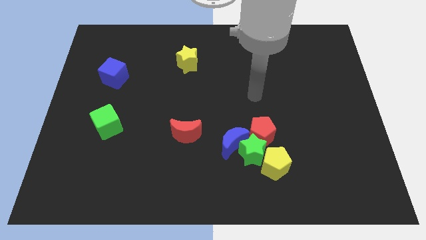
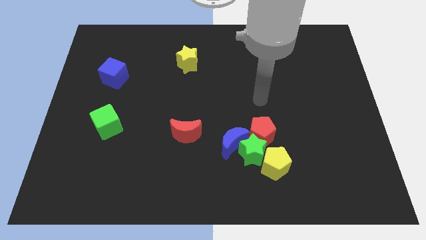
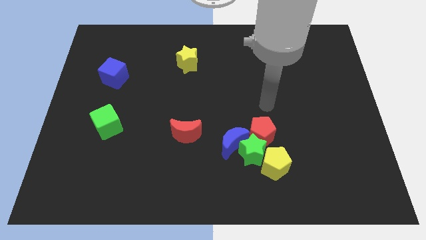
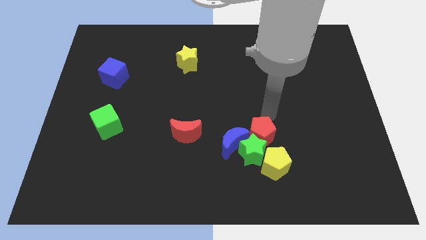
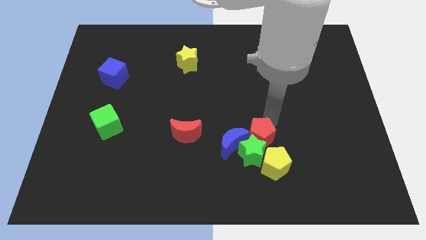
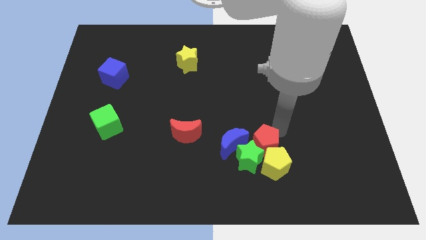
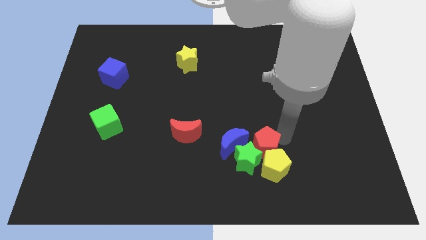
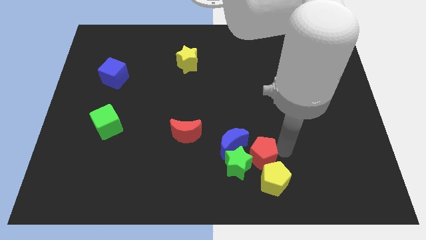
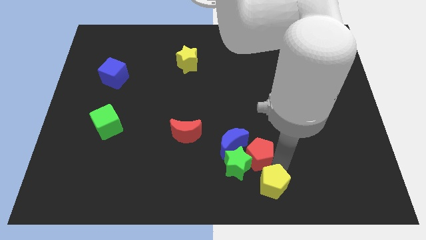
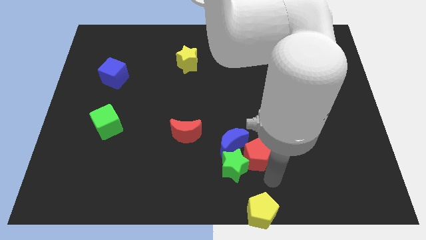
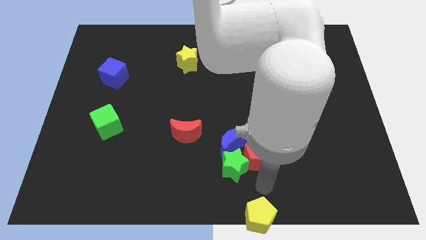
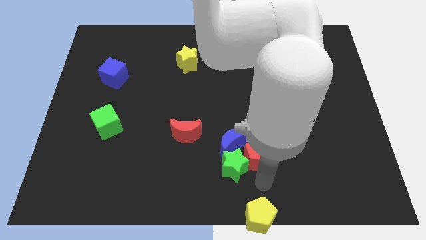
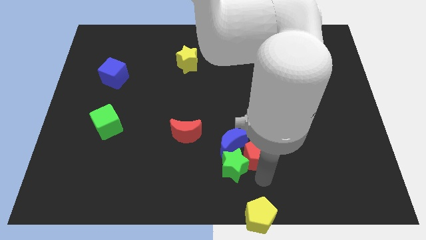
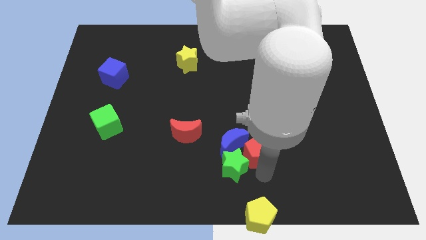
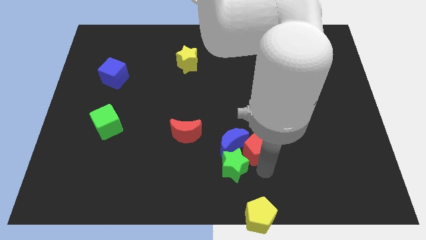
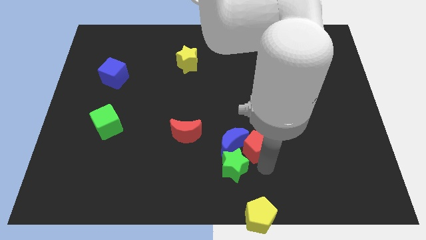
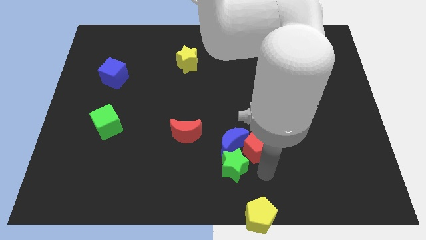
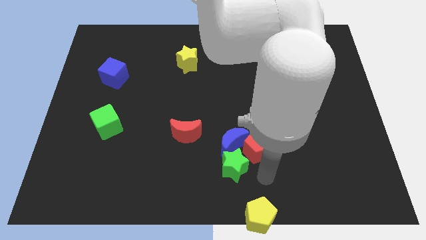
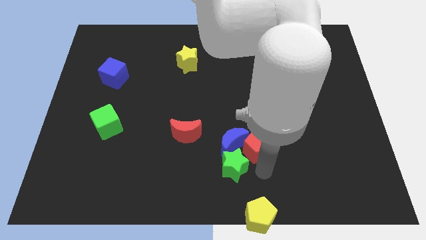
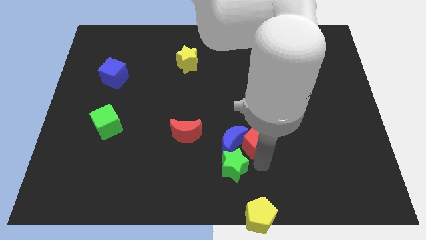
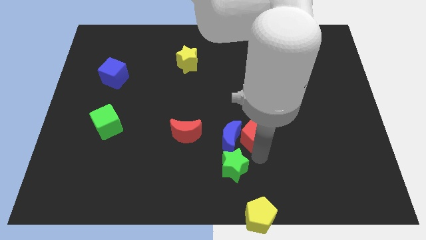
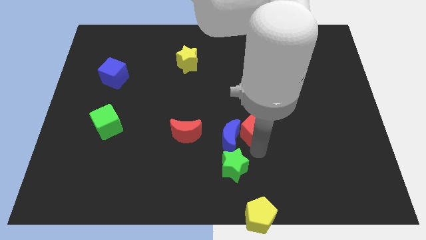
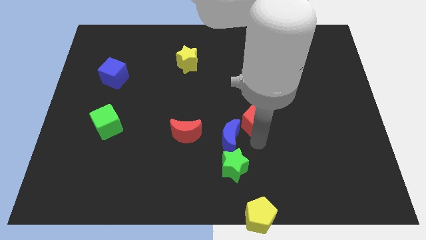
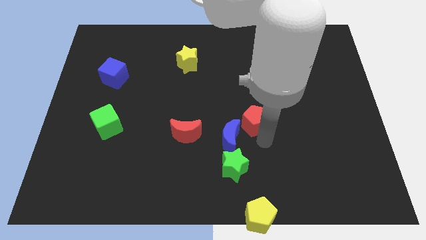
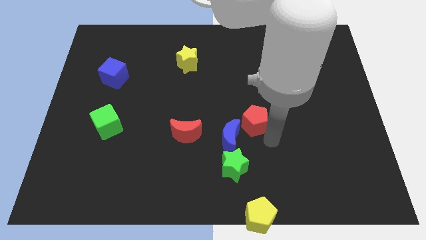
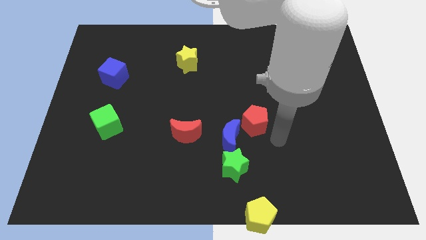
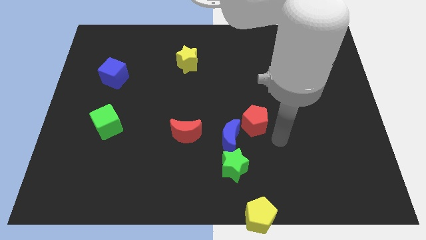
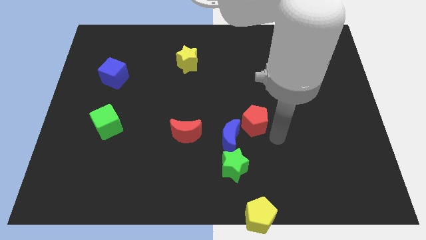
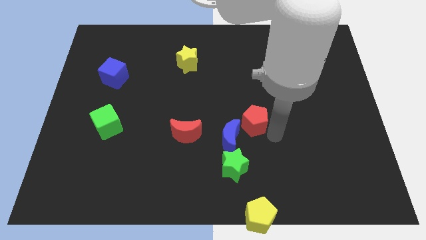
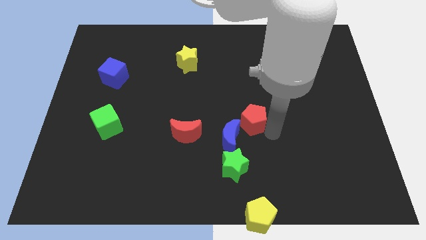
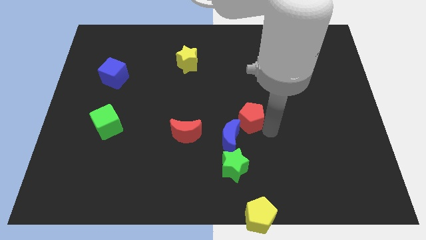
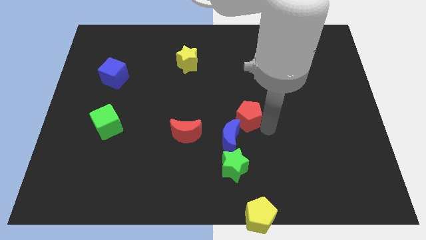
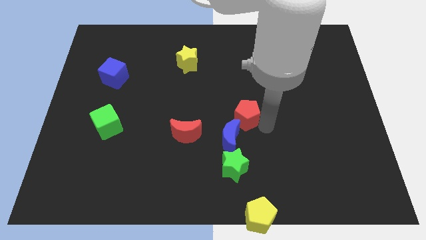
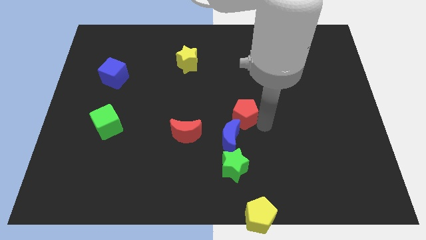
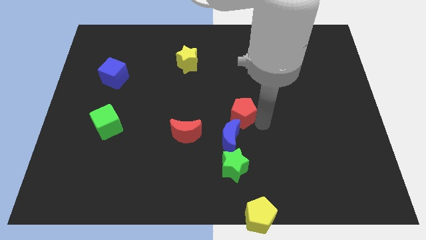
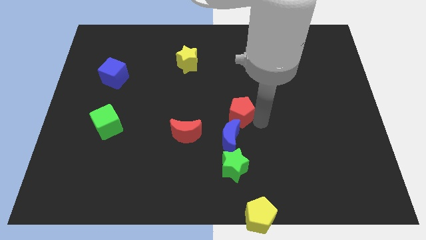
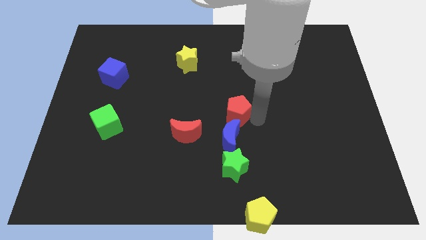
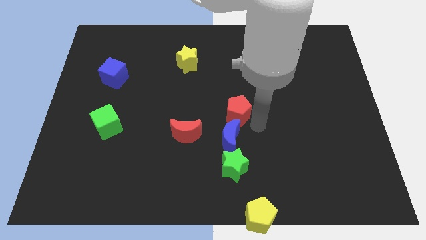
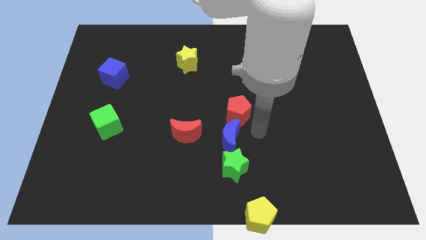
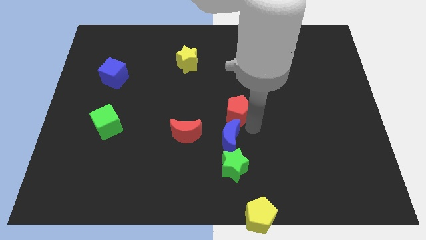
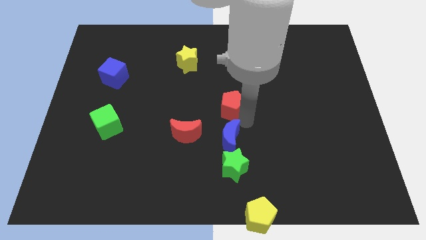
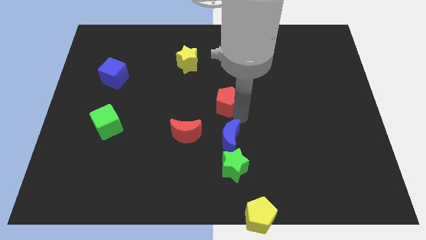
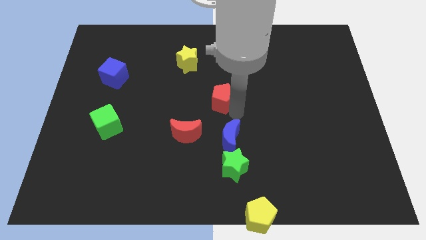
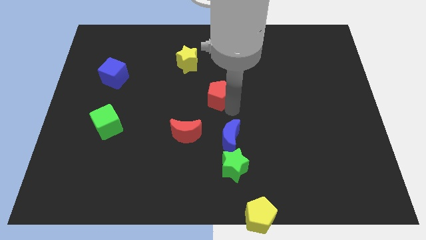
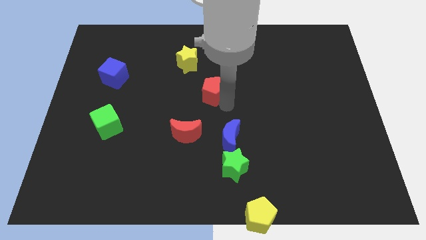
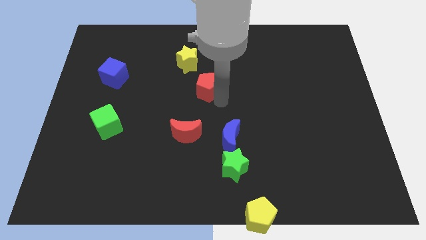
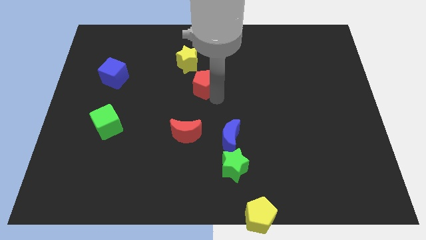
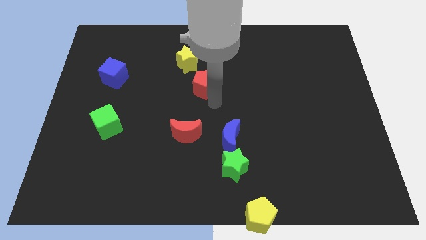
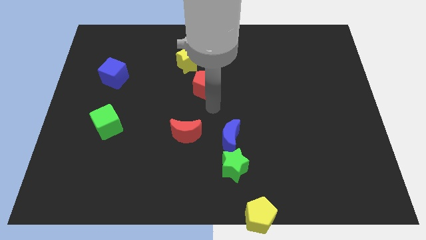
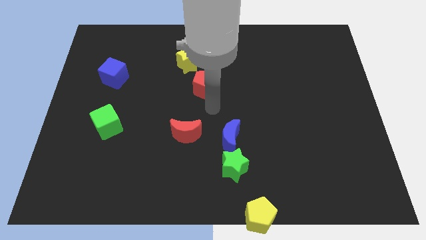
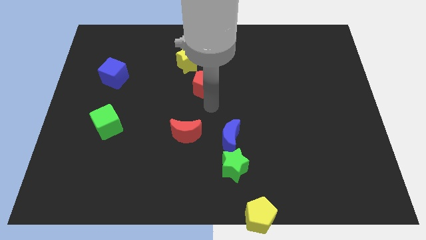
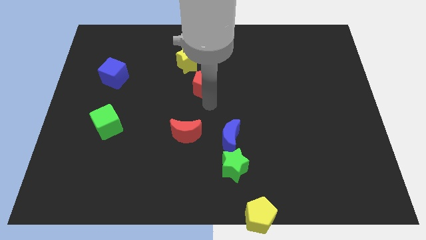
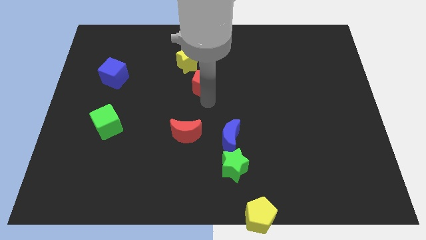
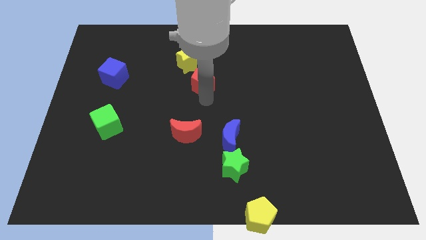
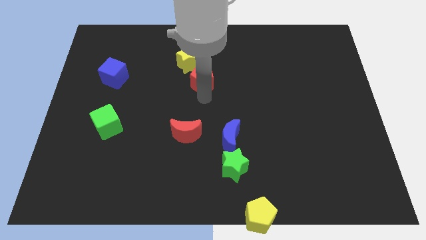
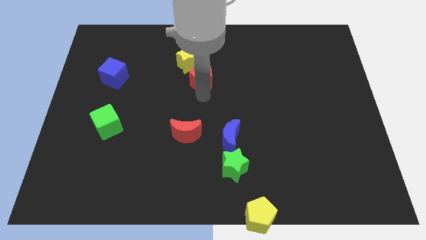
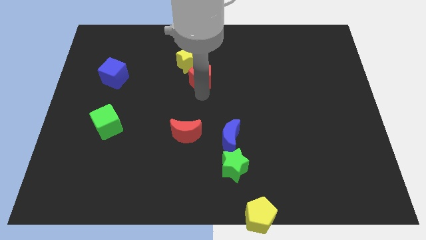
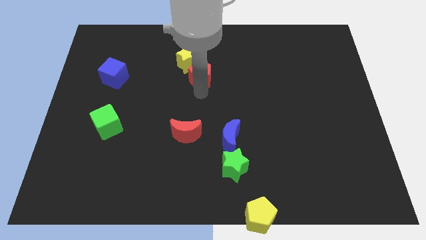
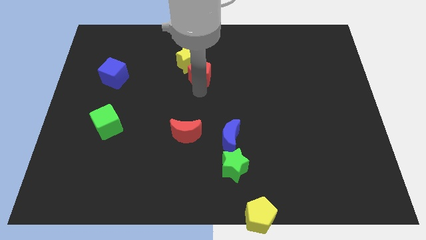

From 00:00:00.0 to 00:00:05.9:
push the red pentagon towards the yellow star

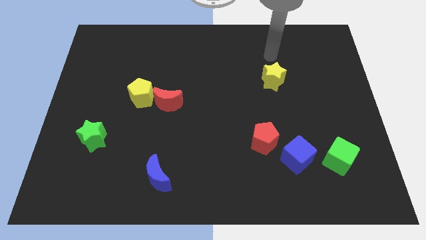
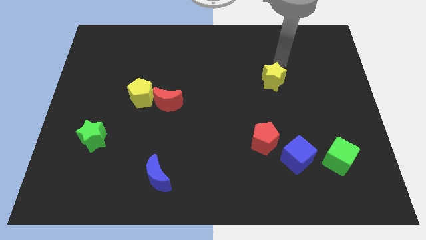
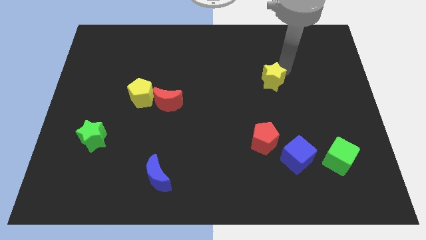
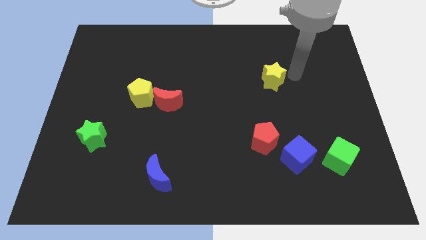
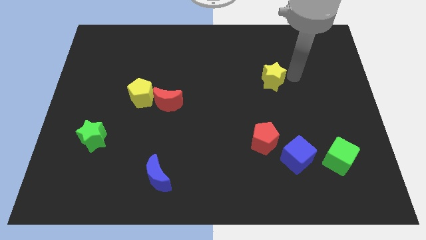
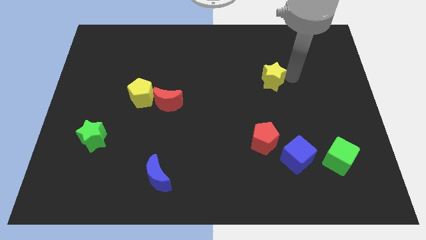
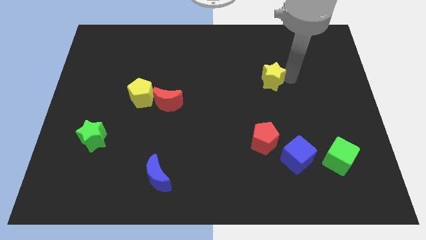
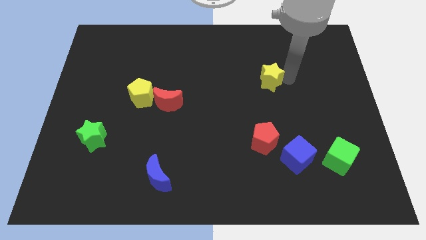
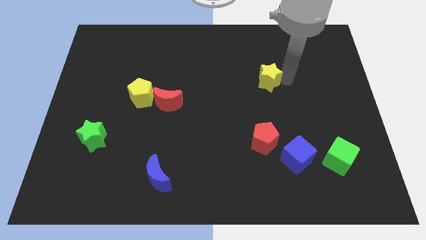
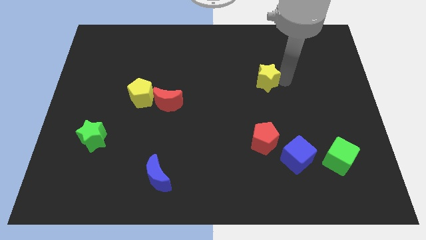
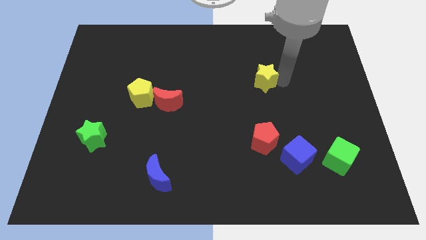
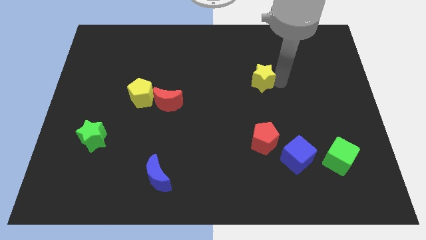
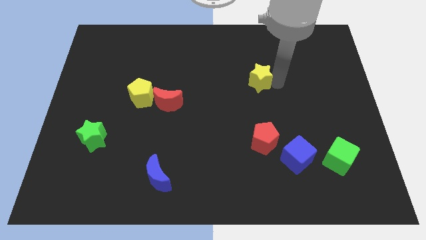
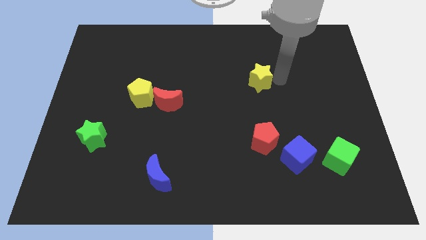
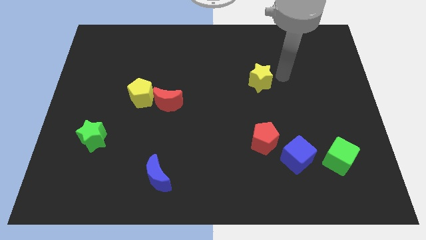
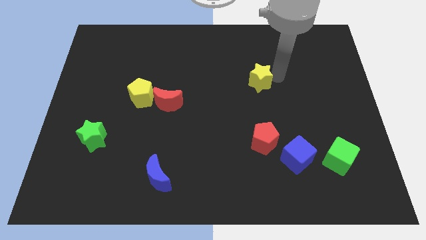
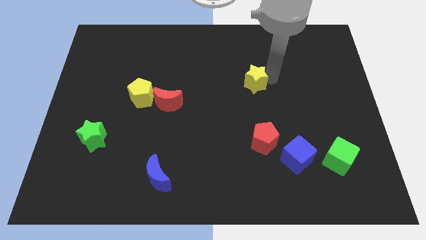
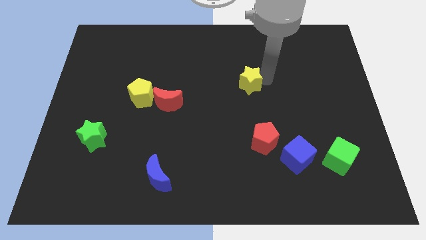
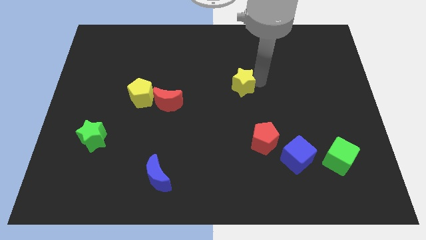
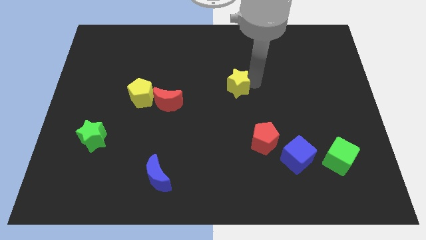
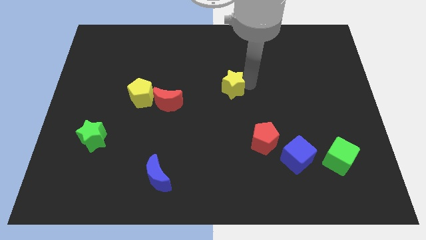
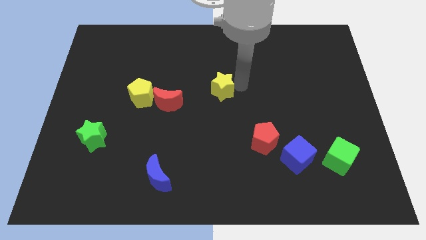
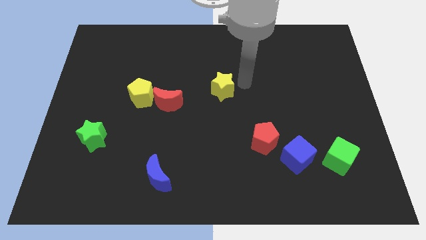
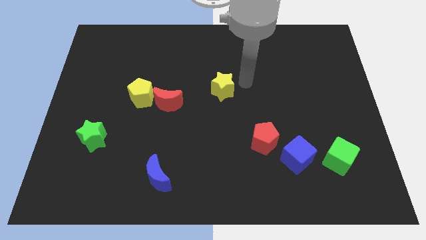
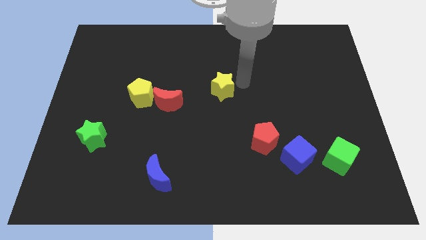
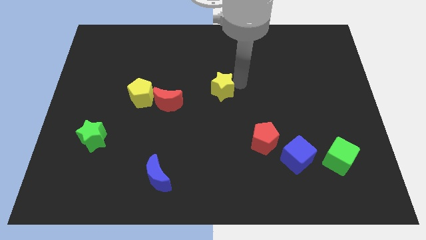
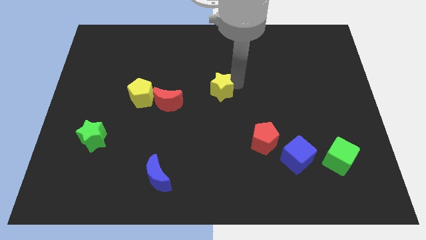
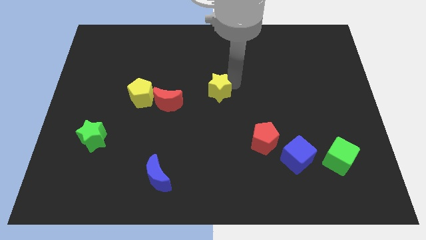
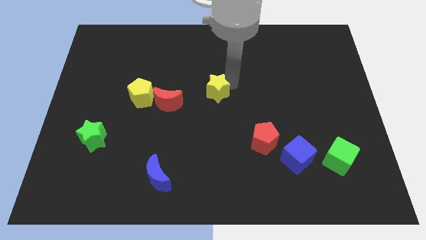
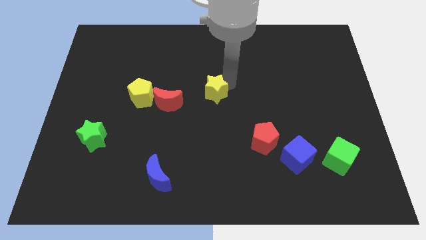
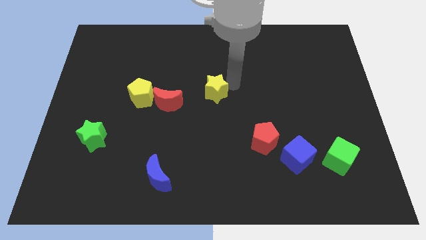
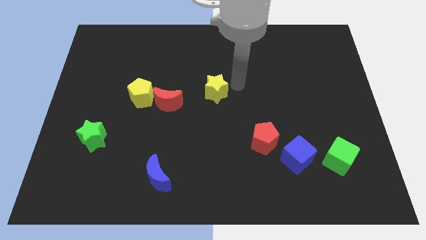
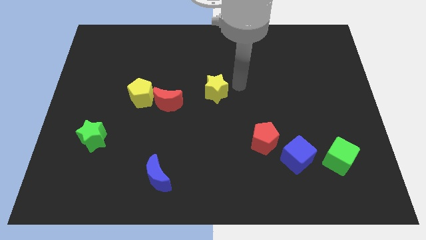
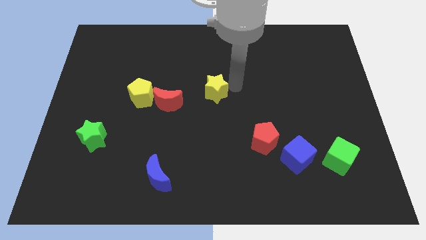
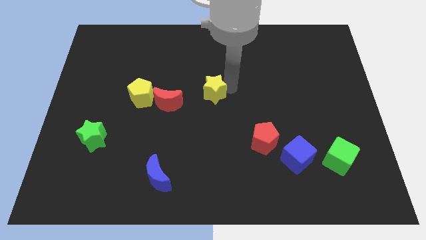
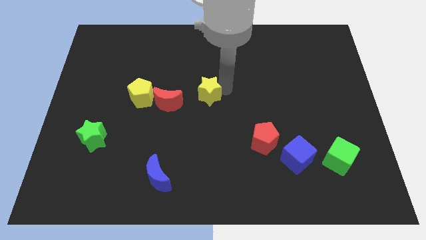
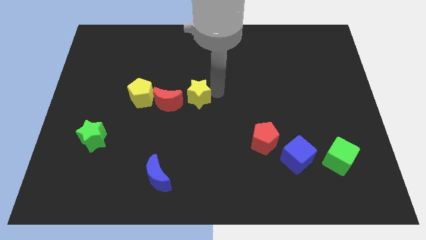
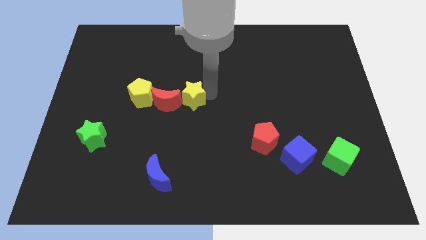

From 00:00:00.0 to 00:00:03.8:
put the yellow star towards the red moon
